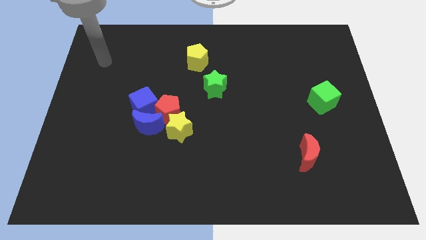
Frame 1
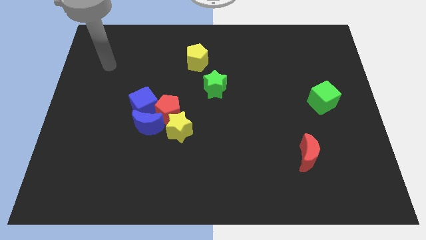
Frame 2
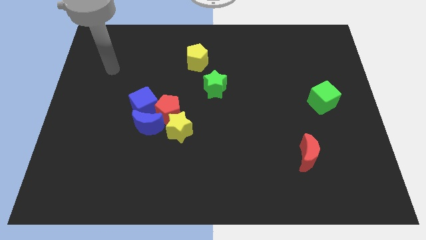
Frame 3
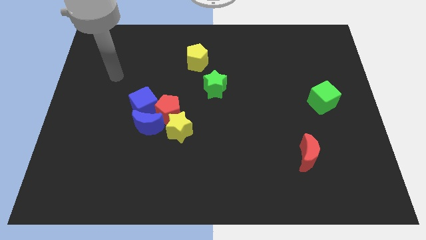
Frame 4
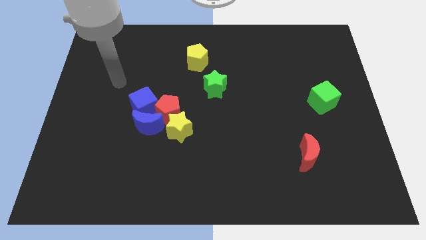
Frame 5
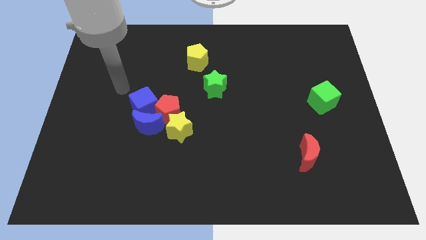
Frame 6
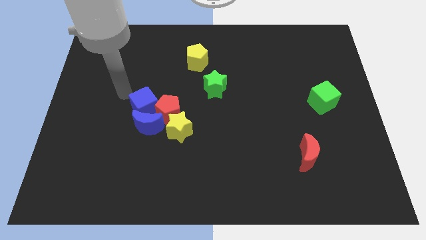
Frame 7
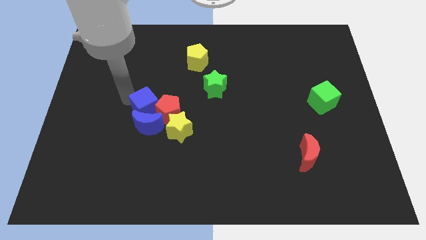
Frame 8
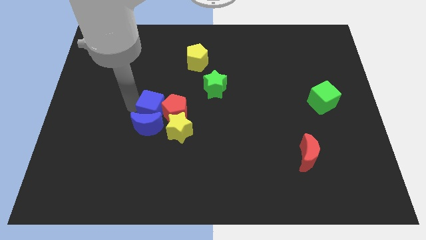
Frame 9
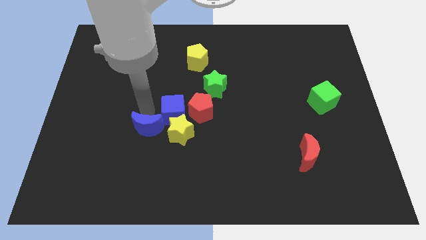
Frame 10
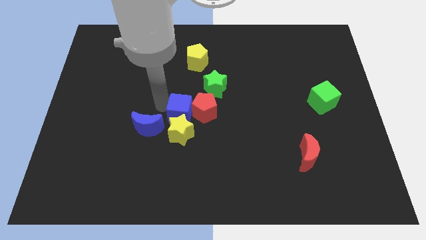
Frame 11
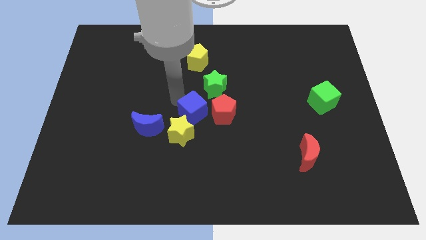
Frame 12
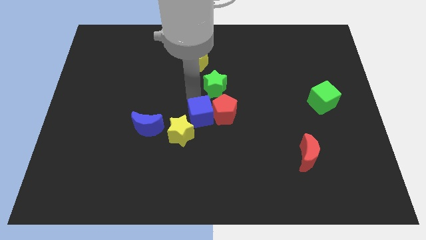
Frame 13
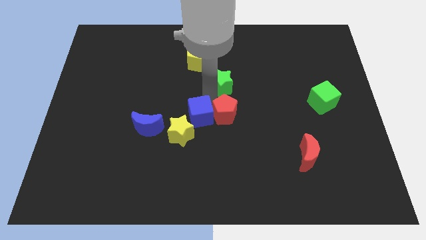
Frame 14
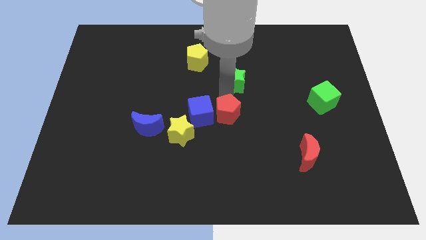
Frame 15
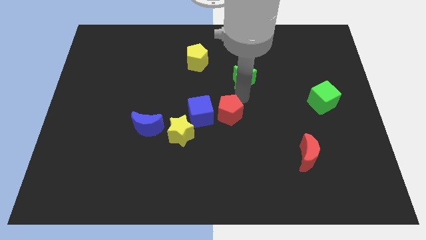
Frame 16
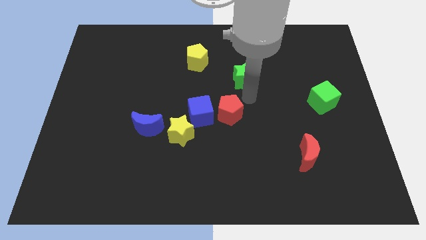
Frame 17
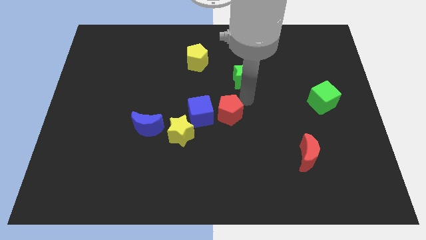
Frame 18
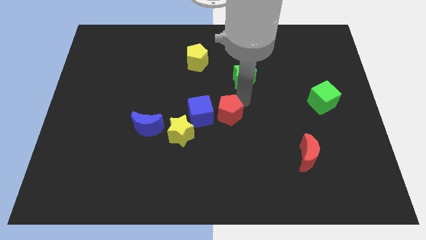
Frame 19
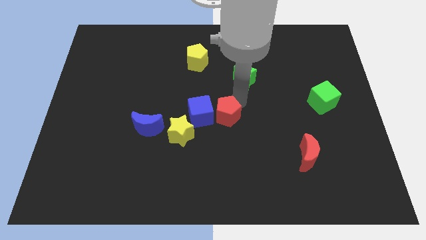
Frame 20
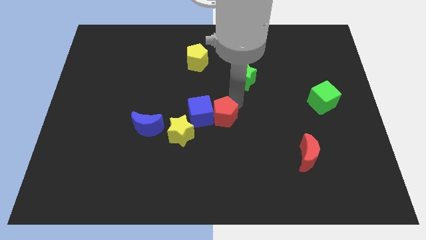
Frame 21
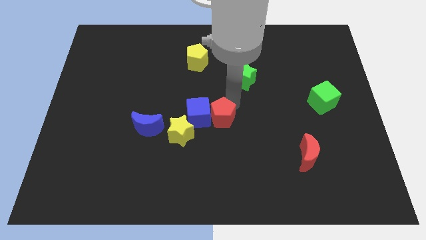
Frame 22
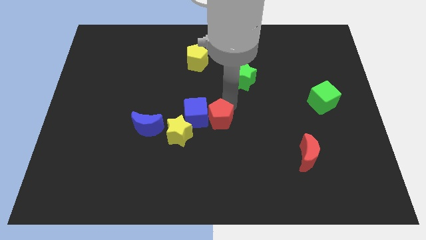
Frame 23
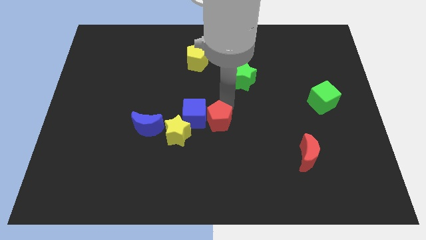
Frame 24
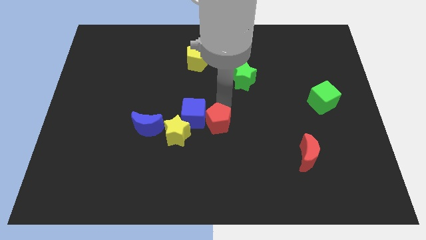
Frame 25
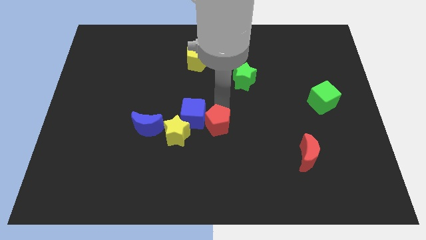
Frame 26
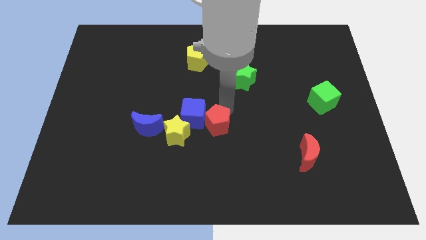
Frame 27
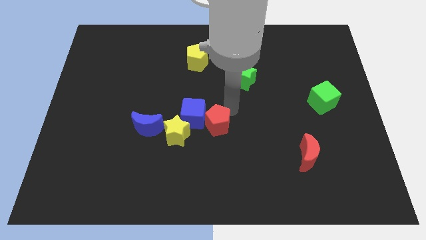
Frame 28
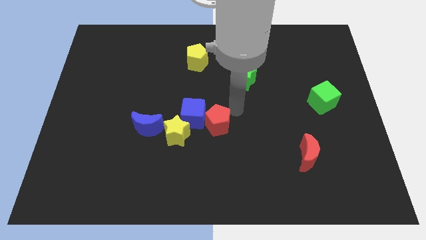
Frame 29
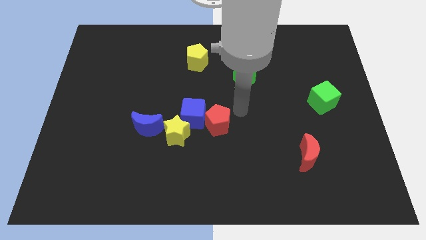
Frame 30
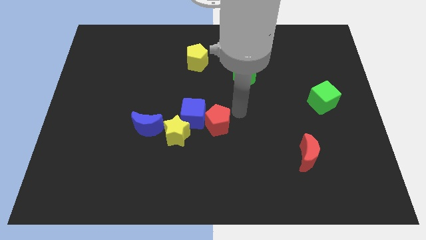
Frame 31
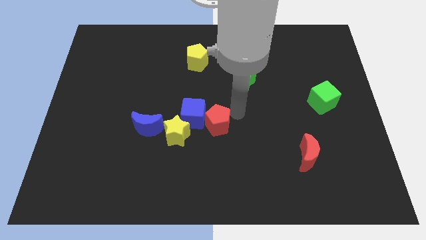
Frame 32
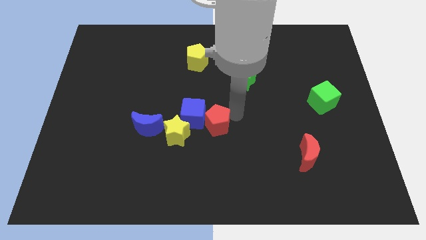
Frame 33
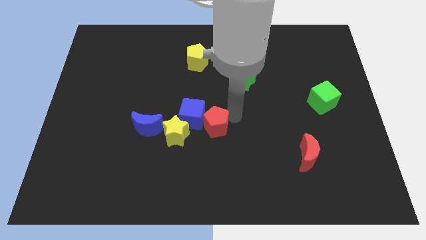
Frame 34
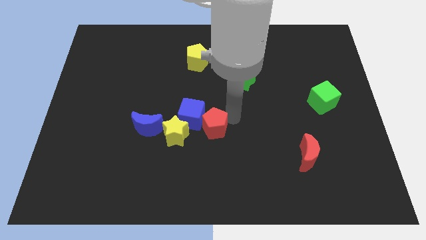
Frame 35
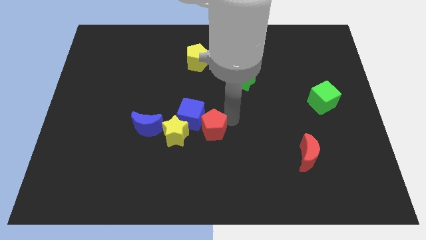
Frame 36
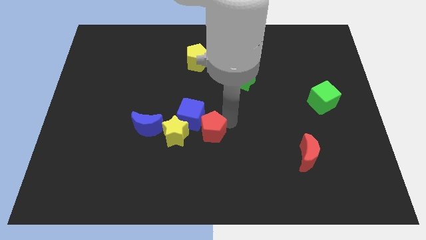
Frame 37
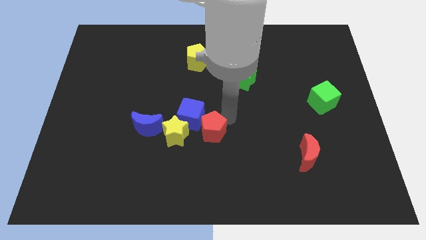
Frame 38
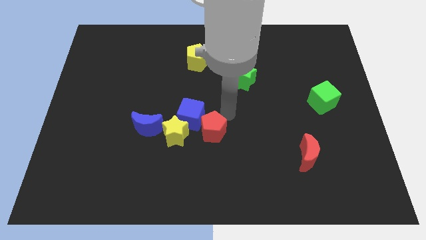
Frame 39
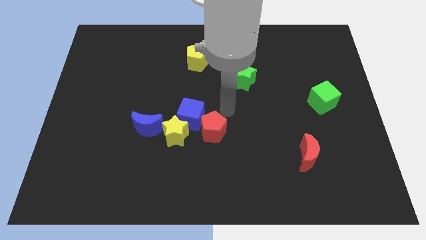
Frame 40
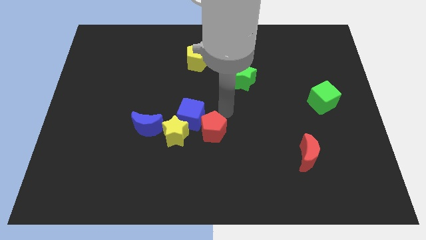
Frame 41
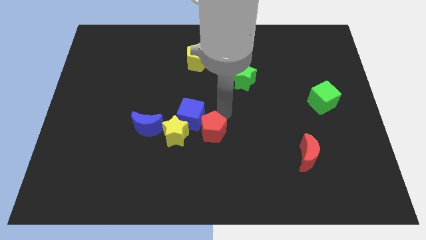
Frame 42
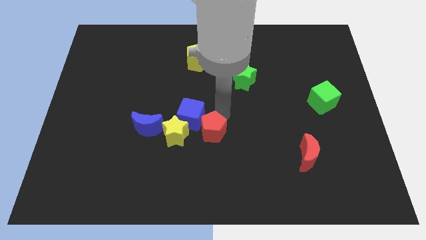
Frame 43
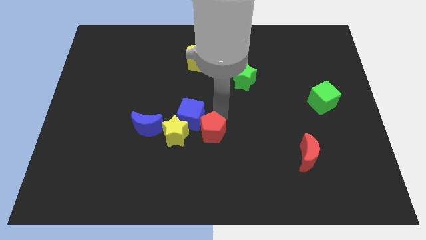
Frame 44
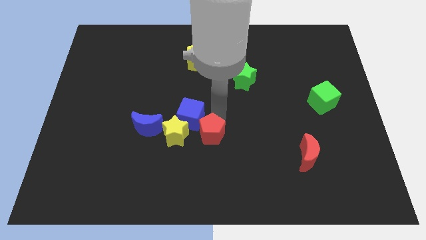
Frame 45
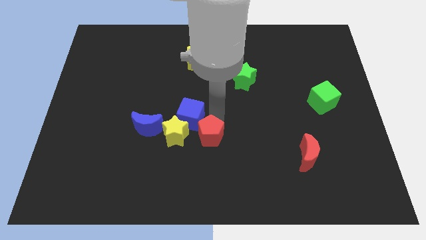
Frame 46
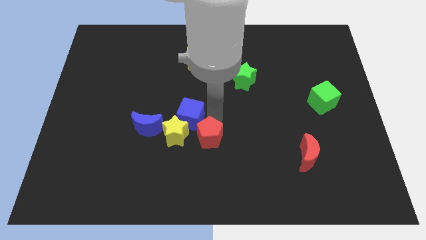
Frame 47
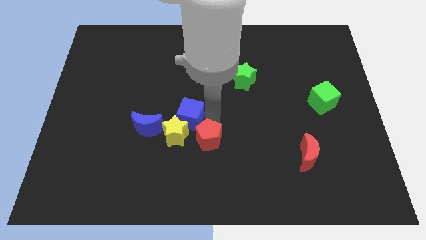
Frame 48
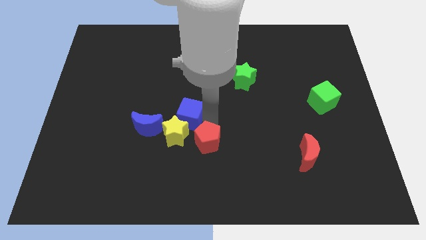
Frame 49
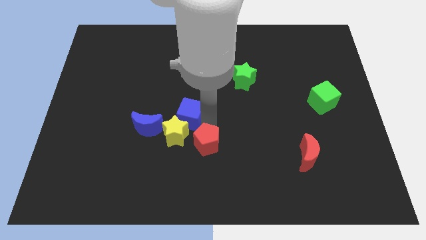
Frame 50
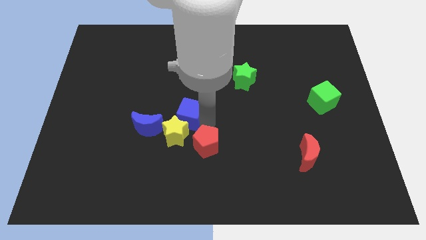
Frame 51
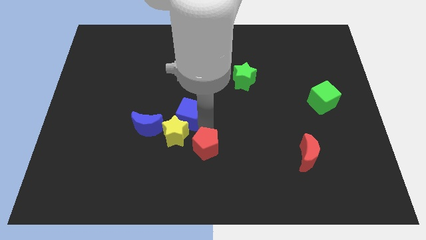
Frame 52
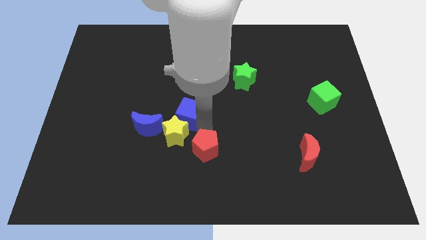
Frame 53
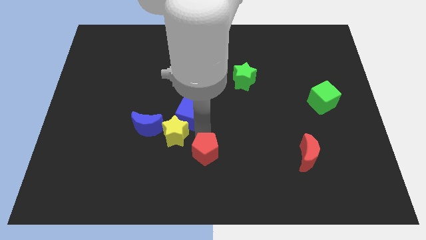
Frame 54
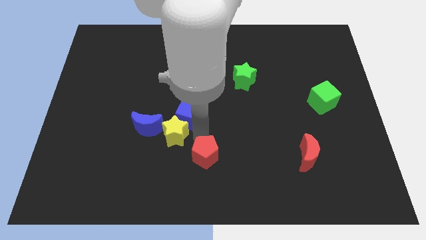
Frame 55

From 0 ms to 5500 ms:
move the red pentagon to the bottom side

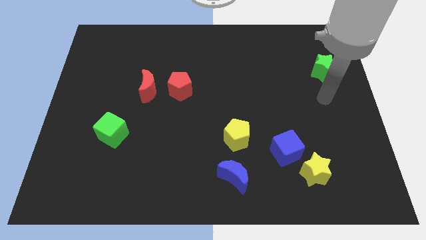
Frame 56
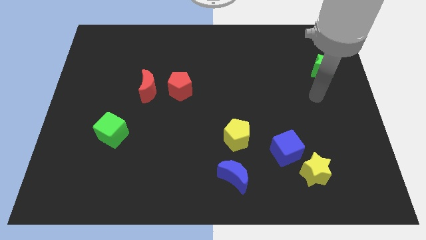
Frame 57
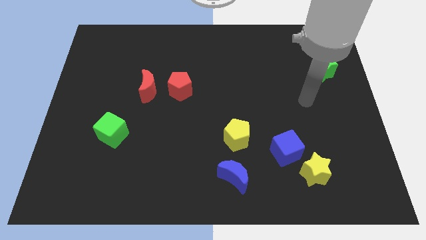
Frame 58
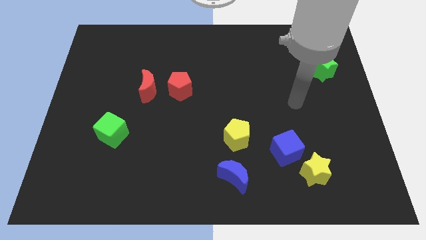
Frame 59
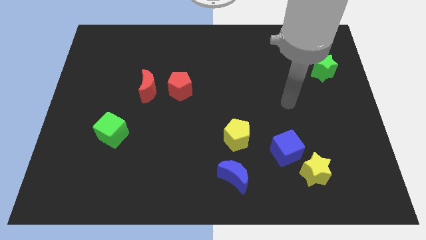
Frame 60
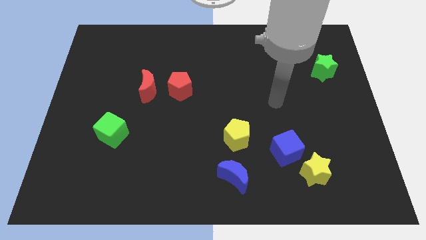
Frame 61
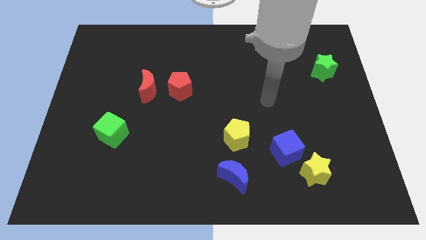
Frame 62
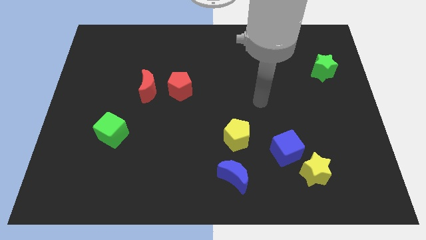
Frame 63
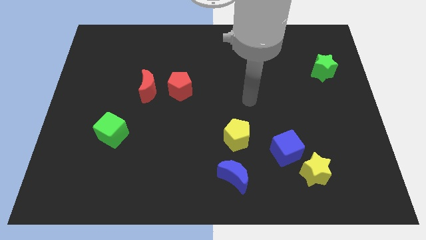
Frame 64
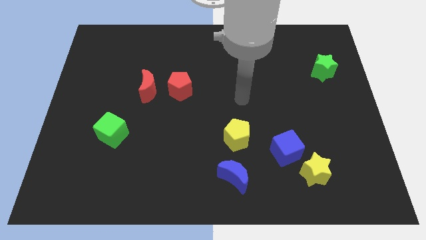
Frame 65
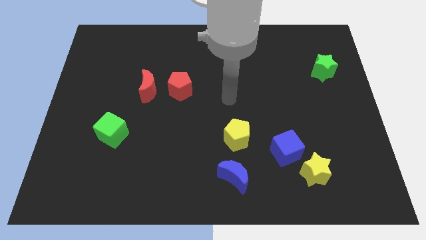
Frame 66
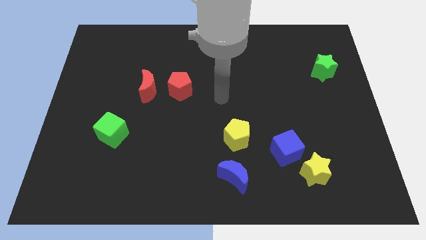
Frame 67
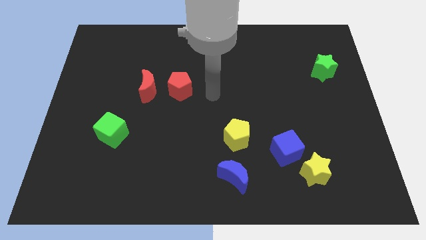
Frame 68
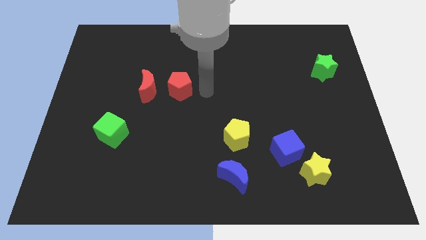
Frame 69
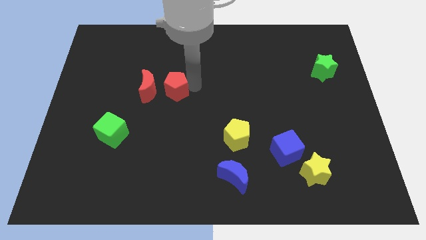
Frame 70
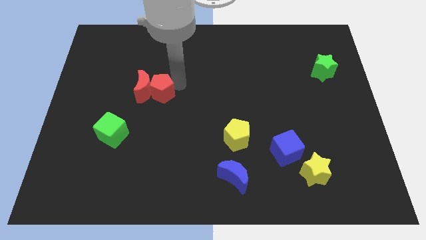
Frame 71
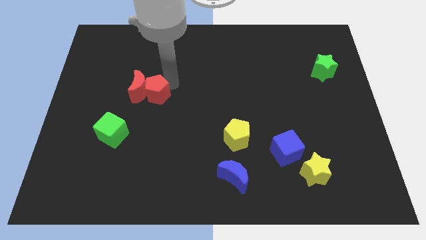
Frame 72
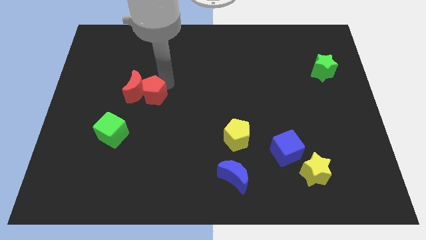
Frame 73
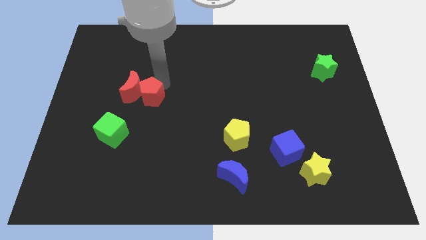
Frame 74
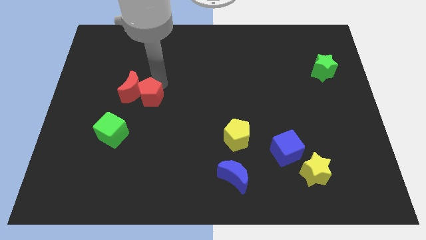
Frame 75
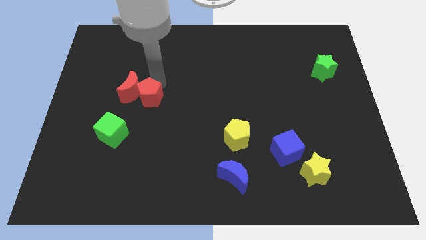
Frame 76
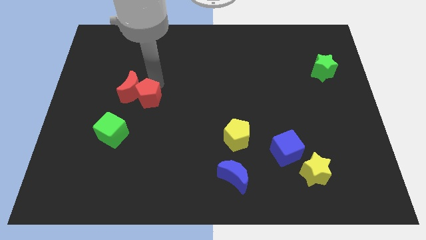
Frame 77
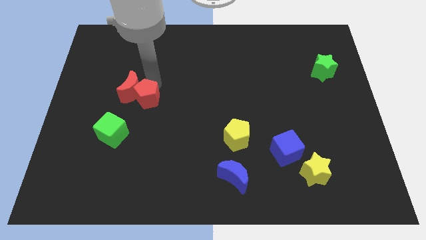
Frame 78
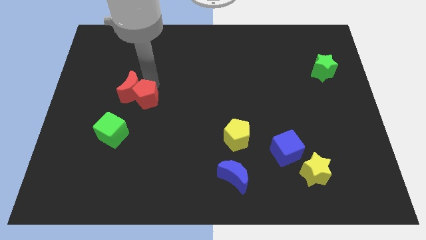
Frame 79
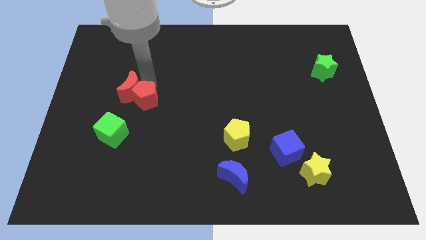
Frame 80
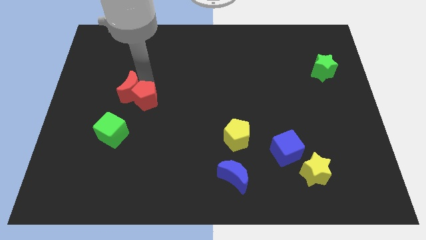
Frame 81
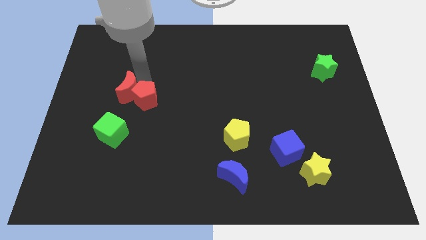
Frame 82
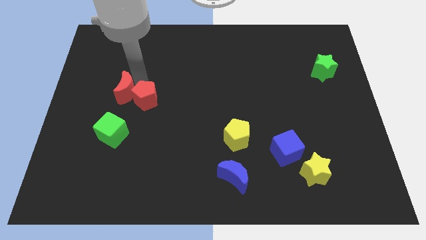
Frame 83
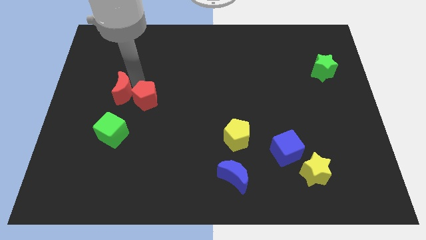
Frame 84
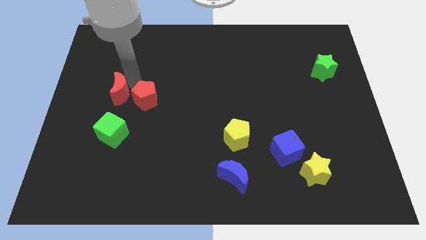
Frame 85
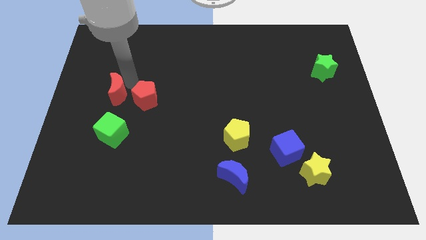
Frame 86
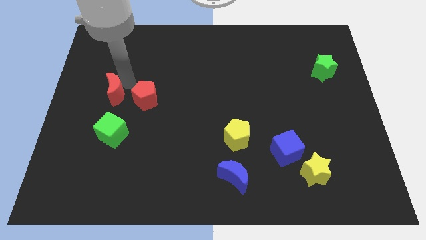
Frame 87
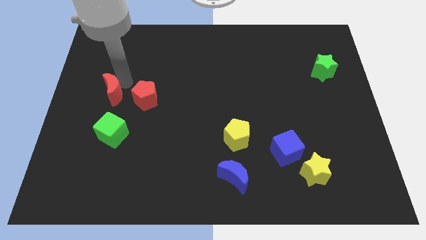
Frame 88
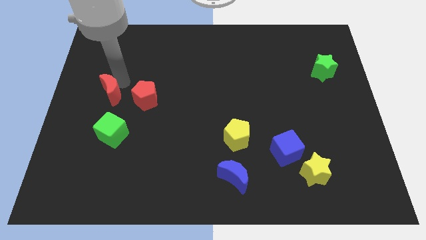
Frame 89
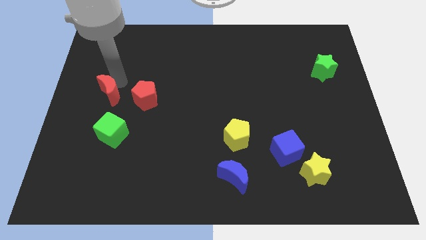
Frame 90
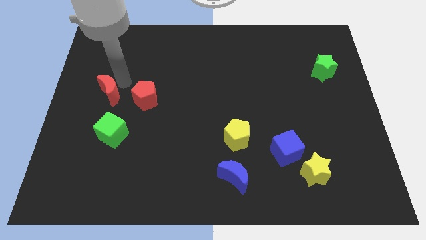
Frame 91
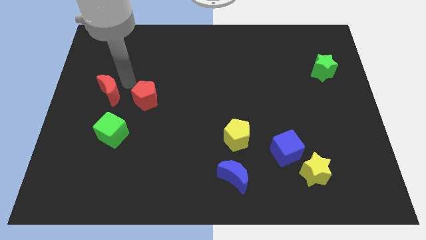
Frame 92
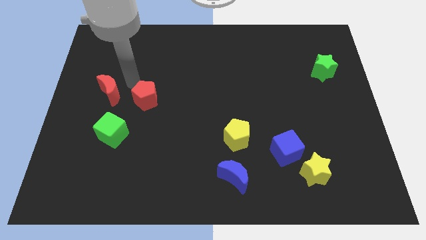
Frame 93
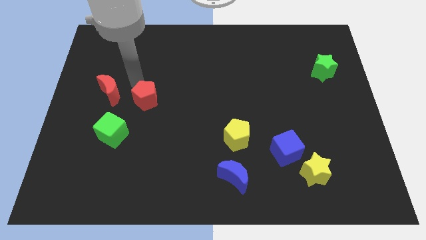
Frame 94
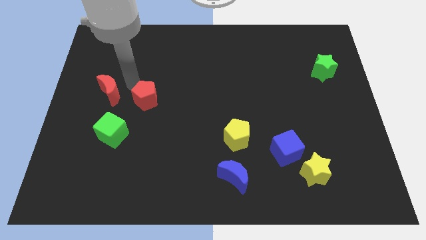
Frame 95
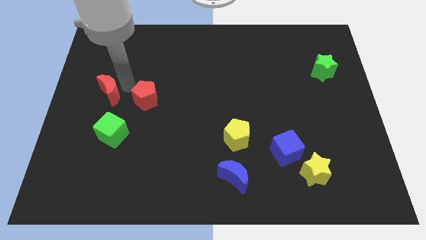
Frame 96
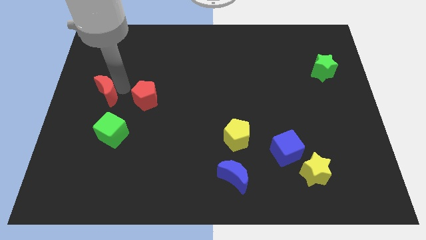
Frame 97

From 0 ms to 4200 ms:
move the red moon to the left side
